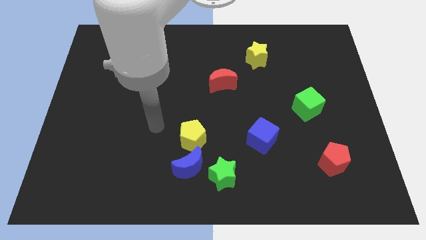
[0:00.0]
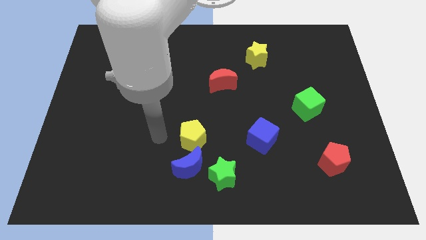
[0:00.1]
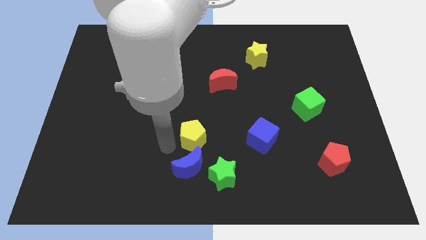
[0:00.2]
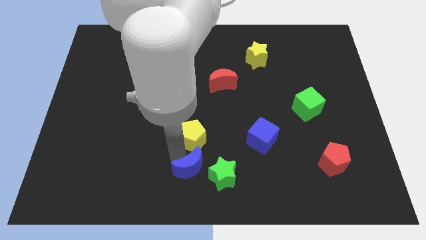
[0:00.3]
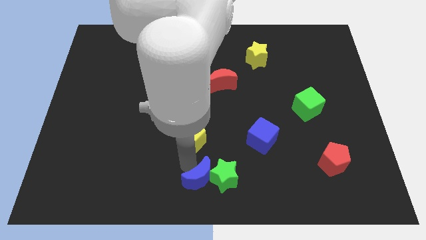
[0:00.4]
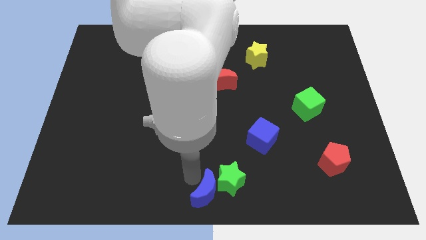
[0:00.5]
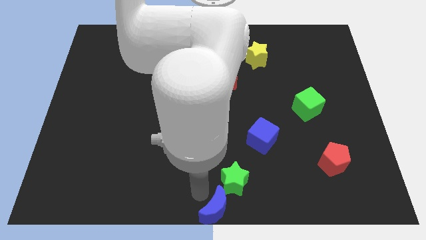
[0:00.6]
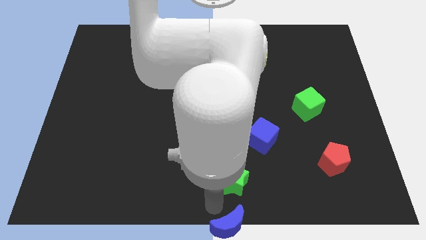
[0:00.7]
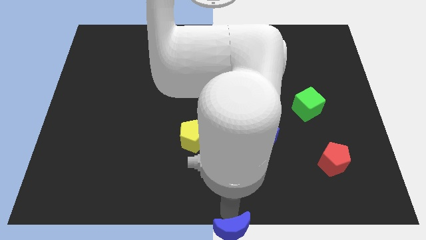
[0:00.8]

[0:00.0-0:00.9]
move the green star away from the blue moon

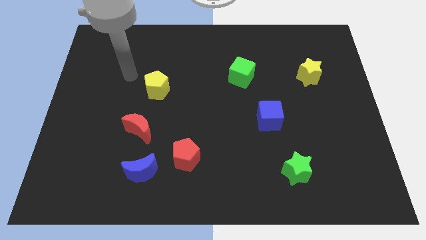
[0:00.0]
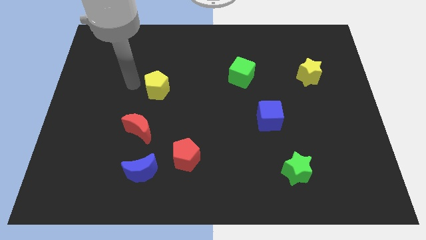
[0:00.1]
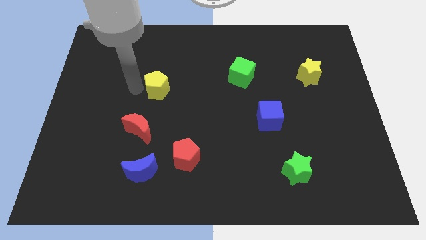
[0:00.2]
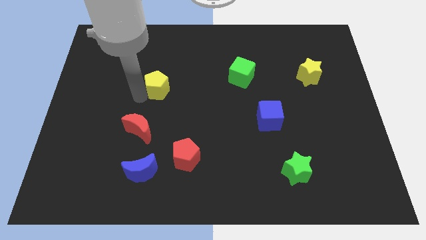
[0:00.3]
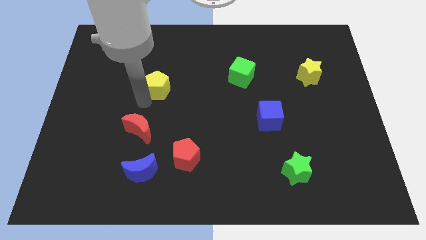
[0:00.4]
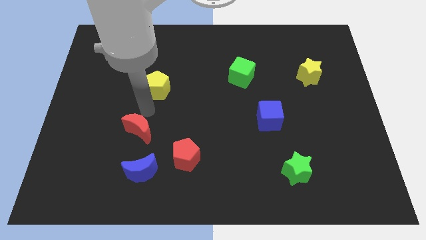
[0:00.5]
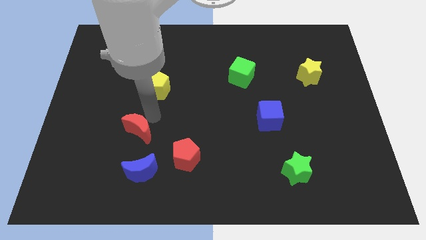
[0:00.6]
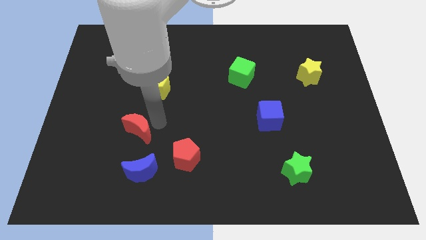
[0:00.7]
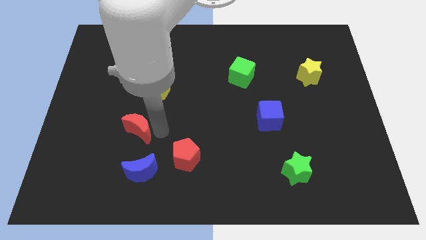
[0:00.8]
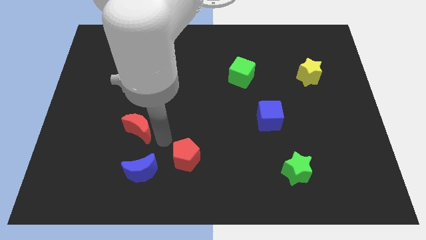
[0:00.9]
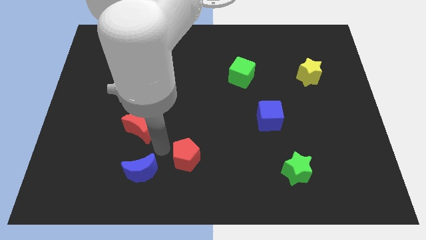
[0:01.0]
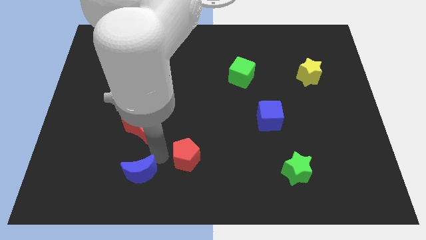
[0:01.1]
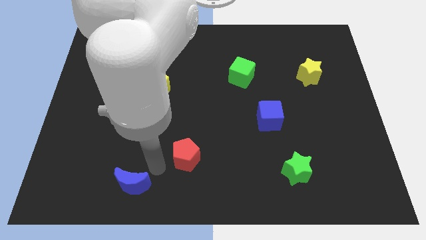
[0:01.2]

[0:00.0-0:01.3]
move the red pentagon away from the blue moon

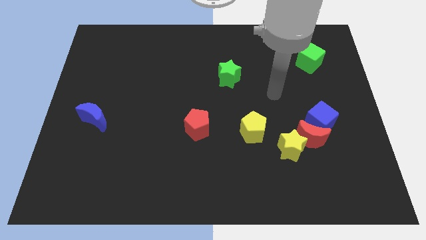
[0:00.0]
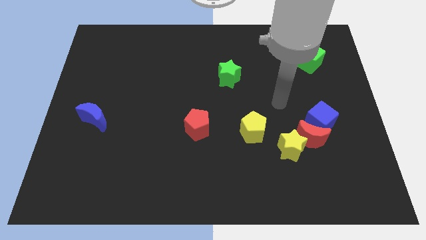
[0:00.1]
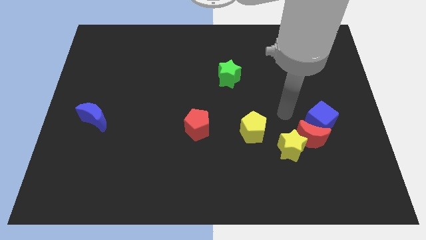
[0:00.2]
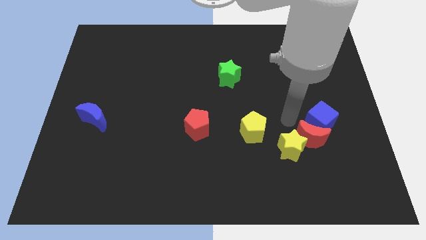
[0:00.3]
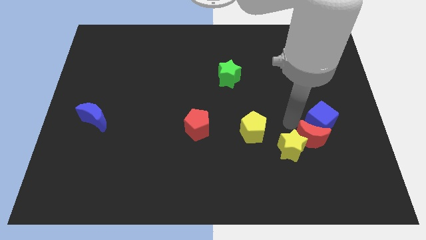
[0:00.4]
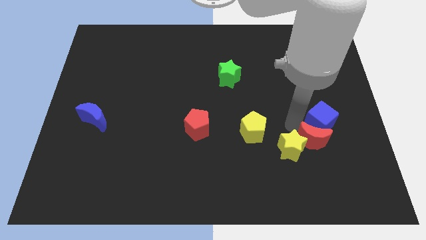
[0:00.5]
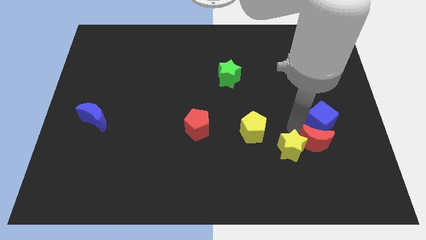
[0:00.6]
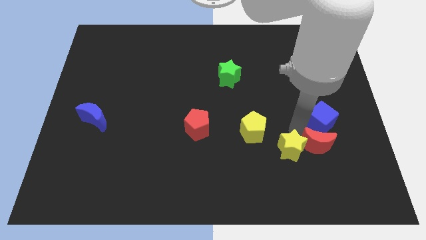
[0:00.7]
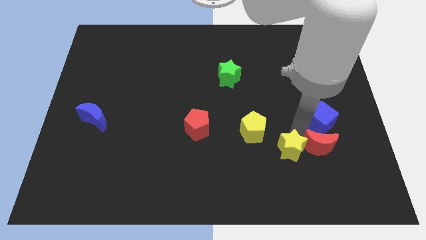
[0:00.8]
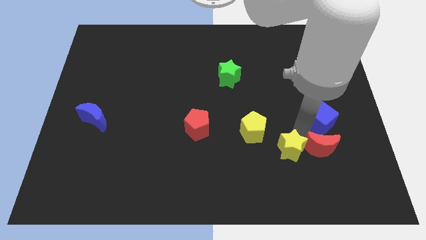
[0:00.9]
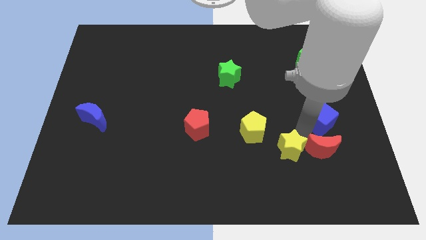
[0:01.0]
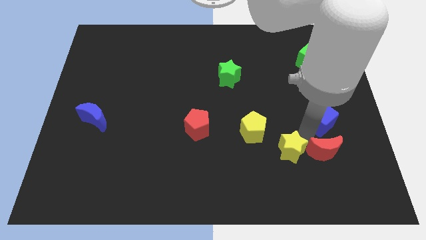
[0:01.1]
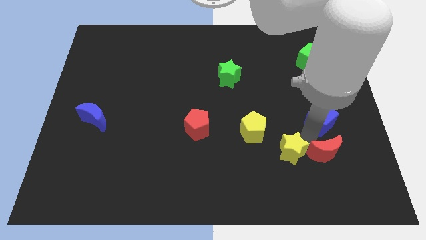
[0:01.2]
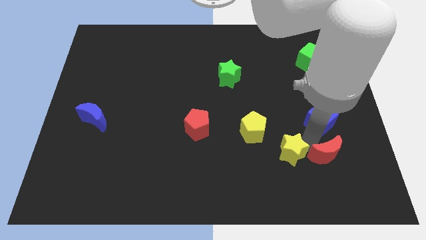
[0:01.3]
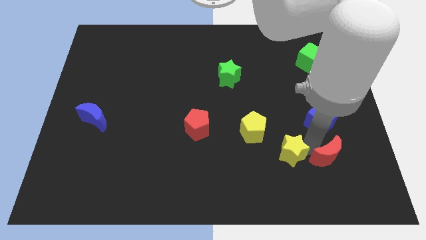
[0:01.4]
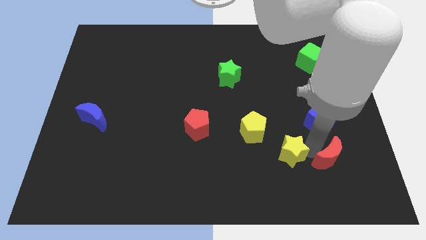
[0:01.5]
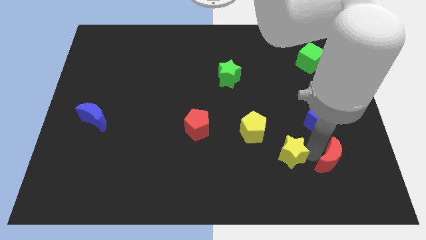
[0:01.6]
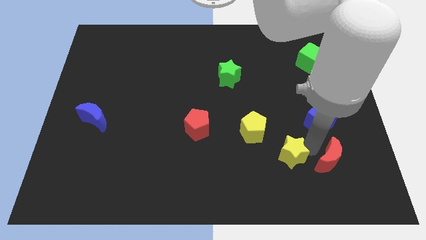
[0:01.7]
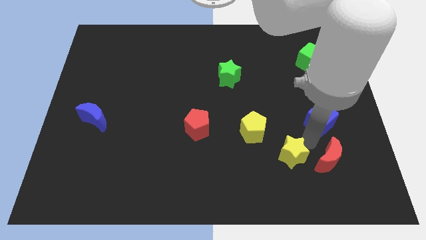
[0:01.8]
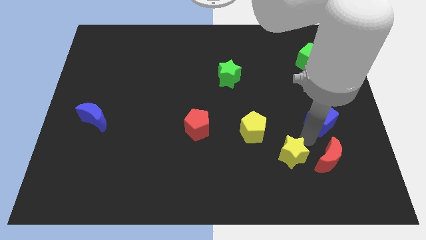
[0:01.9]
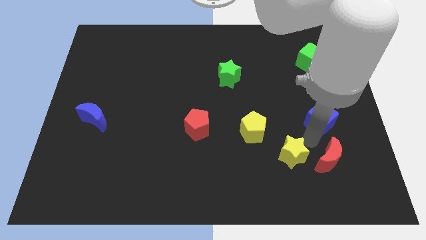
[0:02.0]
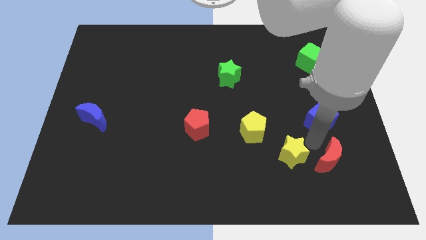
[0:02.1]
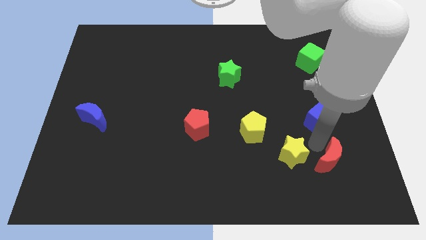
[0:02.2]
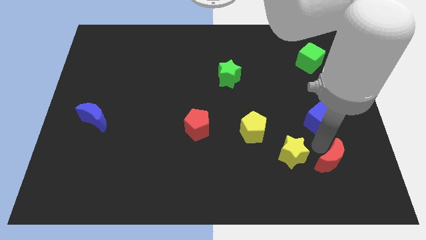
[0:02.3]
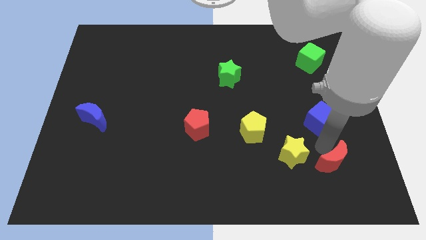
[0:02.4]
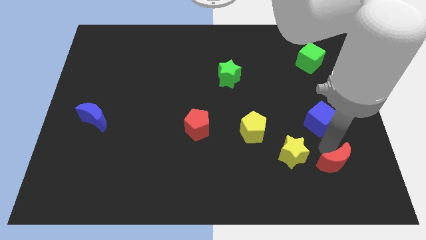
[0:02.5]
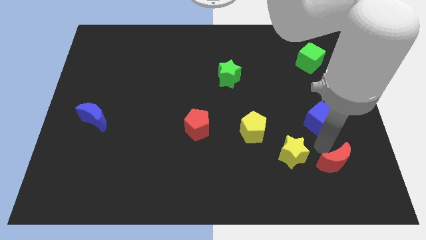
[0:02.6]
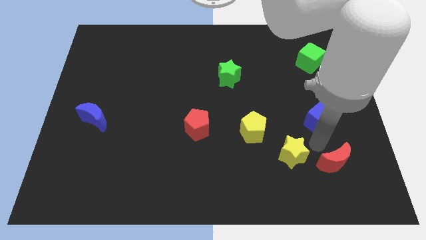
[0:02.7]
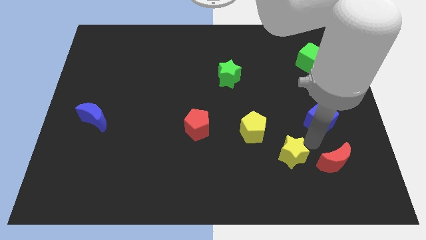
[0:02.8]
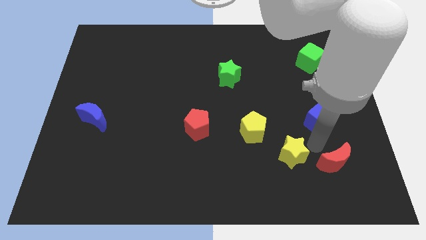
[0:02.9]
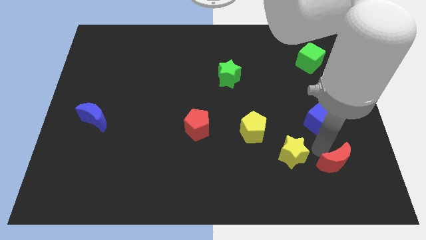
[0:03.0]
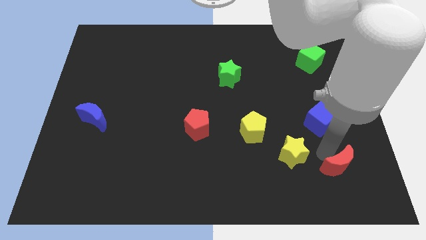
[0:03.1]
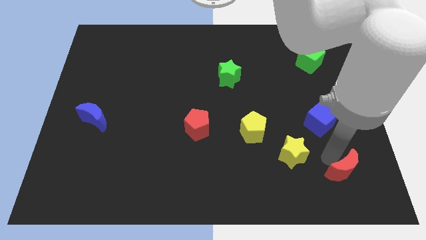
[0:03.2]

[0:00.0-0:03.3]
separate the red moon from the yellow star and blue cube

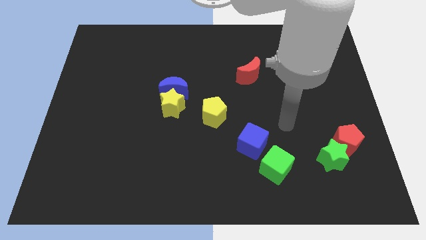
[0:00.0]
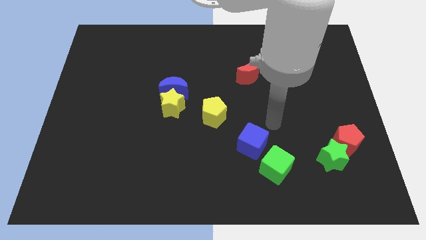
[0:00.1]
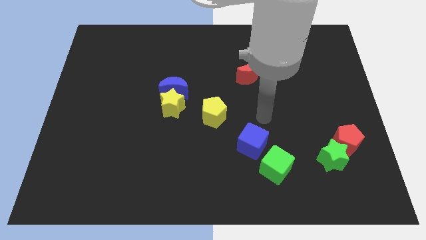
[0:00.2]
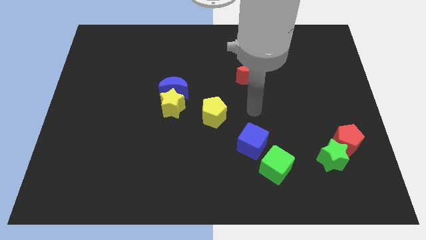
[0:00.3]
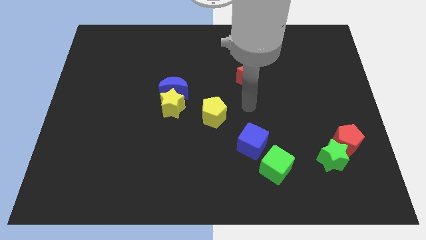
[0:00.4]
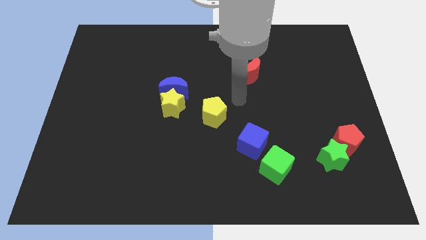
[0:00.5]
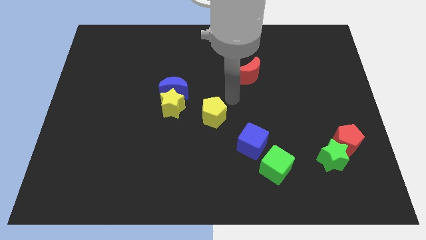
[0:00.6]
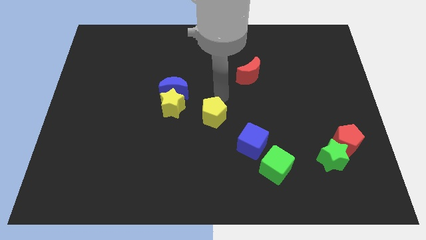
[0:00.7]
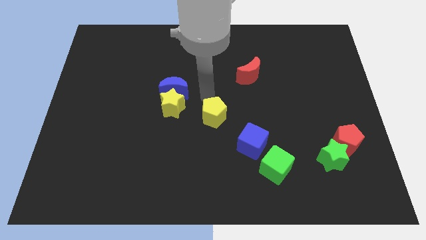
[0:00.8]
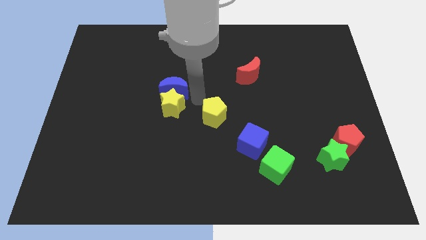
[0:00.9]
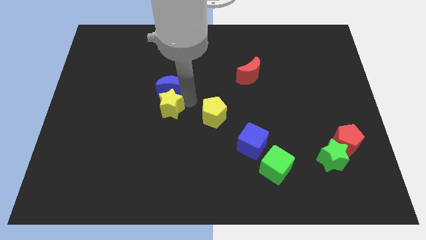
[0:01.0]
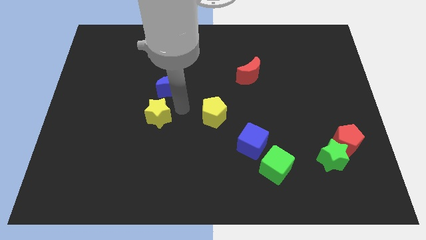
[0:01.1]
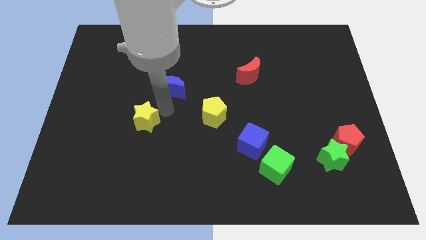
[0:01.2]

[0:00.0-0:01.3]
move the blue moon away from the yellow star

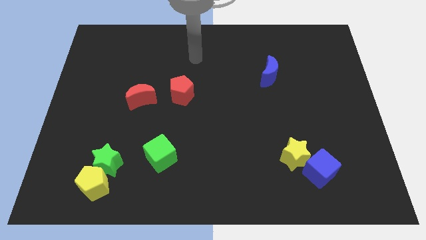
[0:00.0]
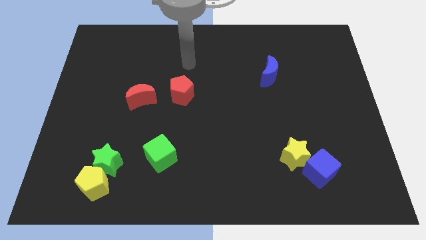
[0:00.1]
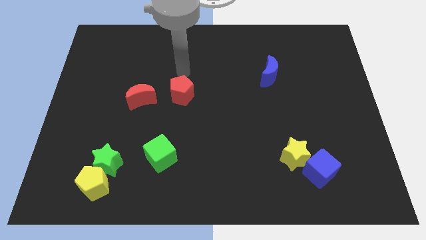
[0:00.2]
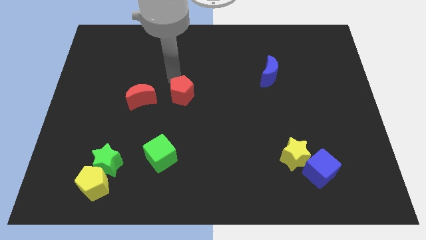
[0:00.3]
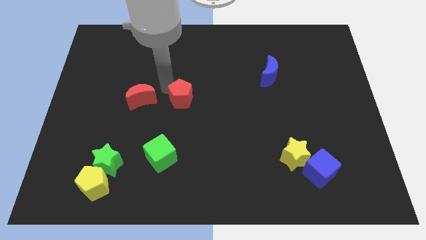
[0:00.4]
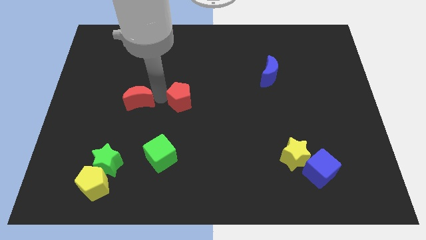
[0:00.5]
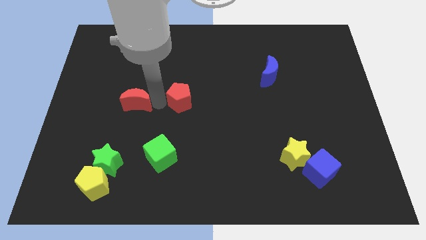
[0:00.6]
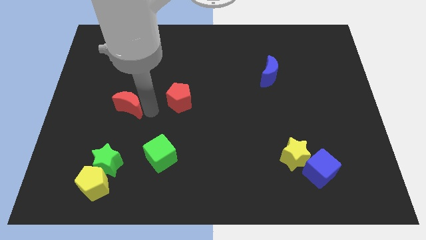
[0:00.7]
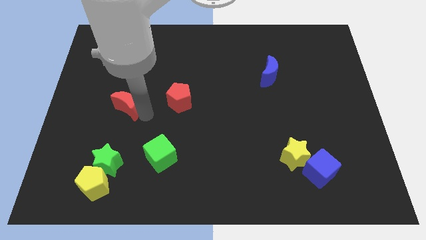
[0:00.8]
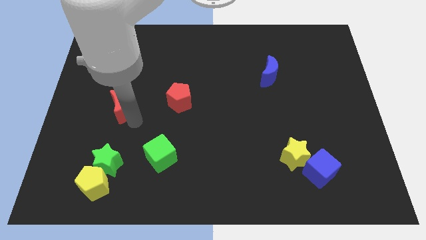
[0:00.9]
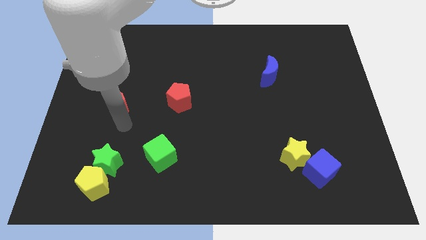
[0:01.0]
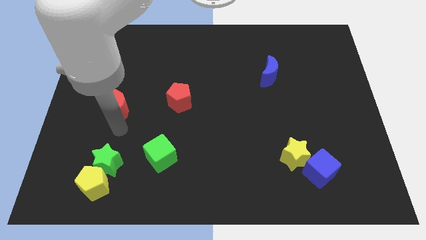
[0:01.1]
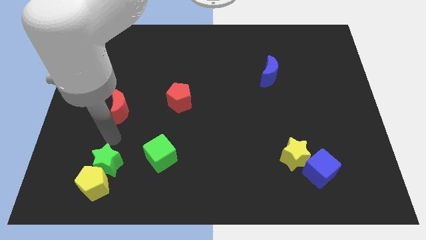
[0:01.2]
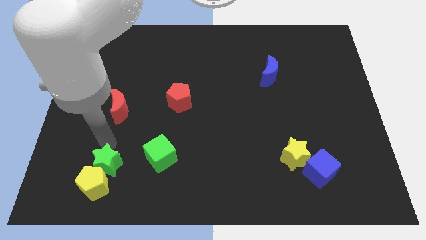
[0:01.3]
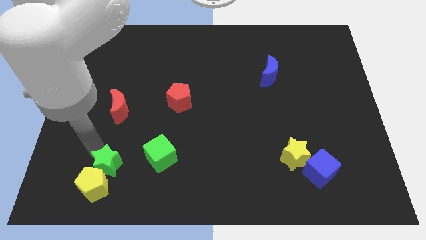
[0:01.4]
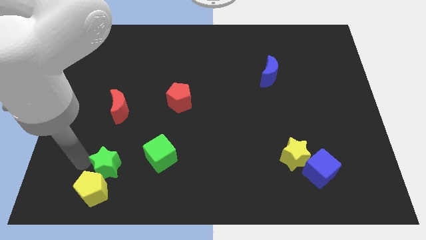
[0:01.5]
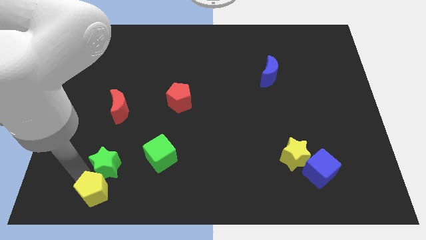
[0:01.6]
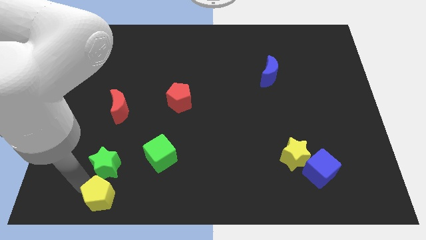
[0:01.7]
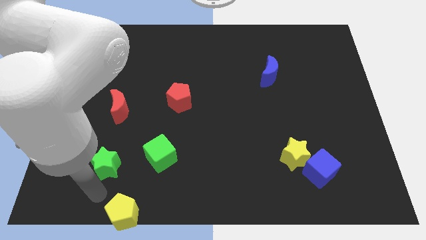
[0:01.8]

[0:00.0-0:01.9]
pull the green star apart from the yellow pentagon

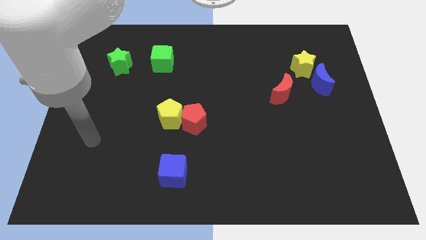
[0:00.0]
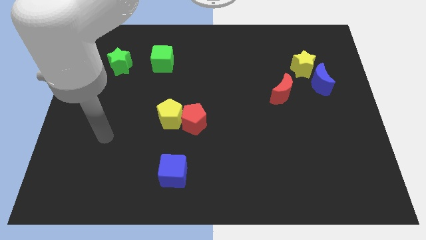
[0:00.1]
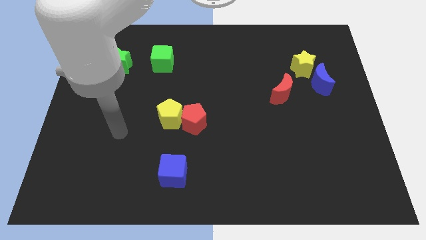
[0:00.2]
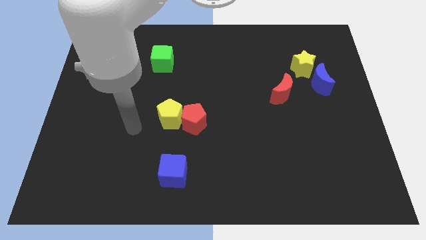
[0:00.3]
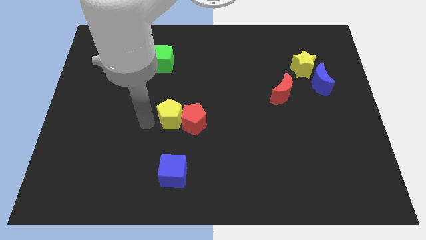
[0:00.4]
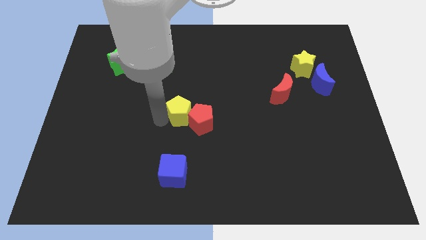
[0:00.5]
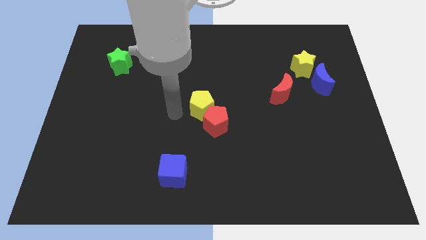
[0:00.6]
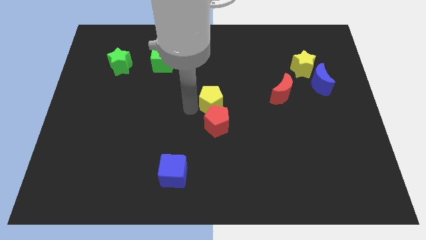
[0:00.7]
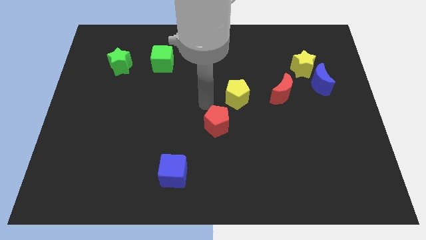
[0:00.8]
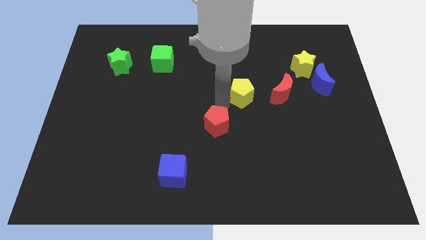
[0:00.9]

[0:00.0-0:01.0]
pull the red pentagon apart from the yellow pentagon
